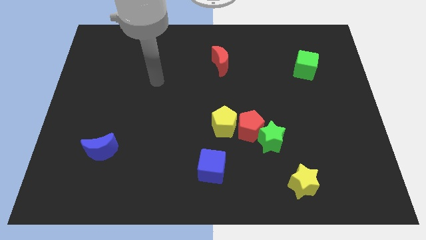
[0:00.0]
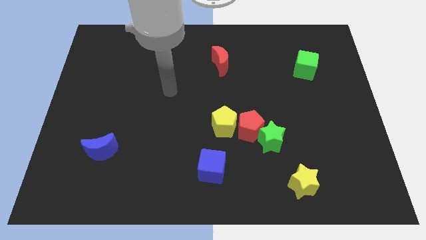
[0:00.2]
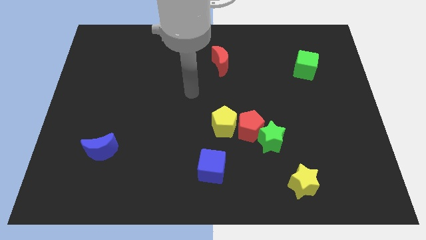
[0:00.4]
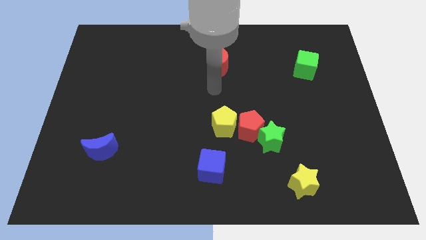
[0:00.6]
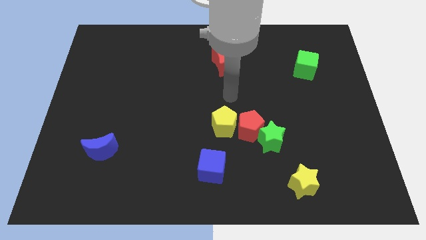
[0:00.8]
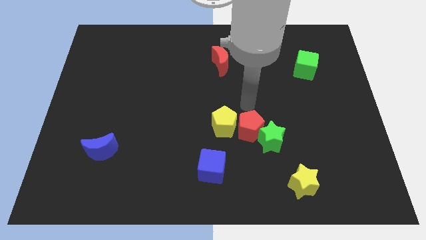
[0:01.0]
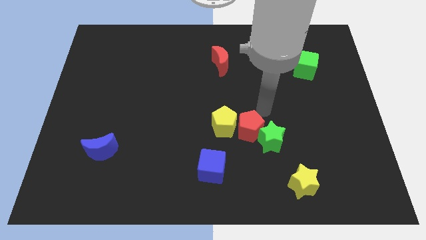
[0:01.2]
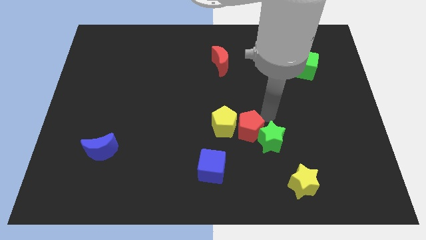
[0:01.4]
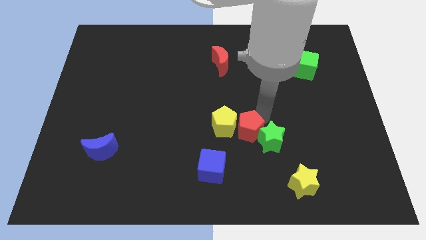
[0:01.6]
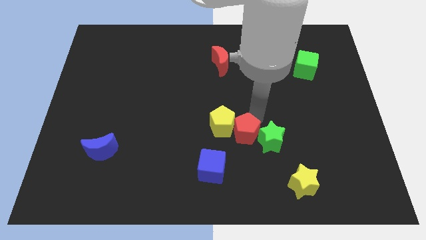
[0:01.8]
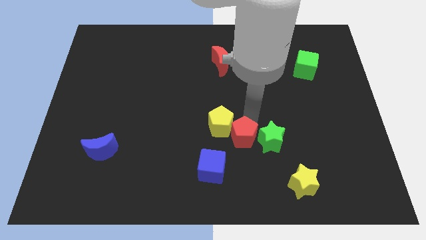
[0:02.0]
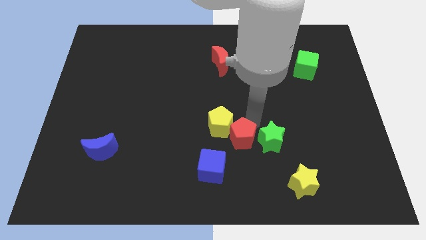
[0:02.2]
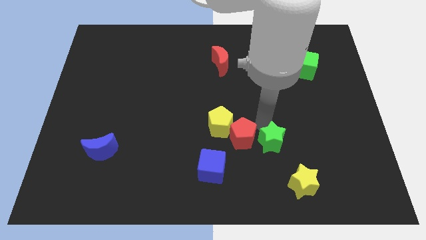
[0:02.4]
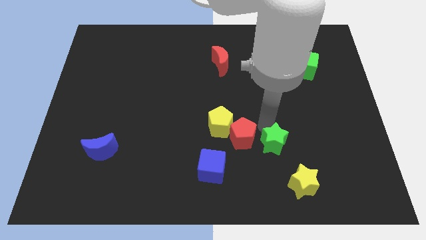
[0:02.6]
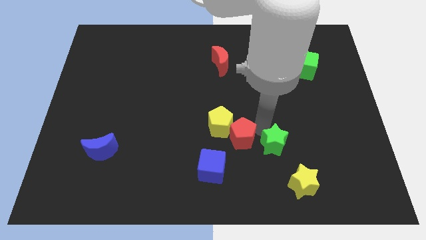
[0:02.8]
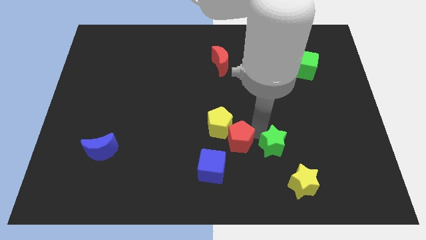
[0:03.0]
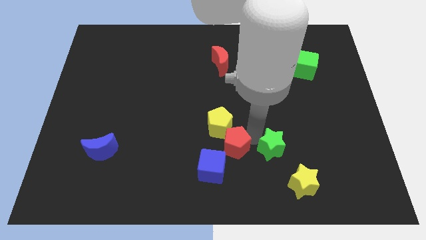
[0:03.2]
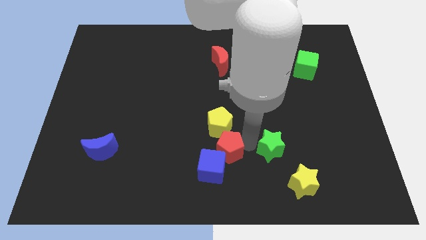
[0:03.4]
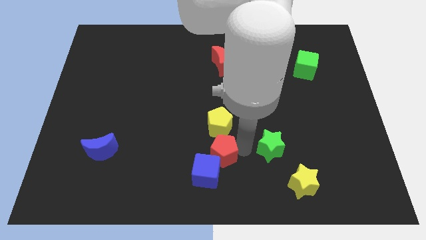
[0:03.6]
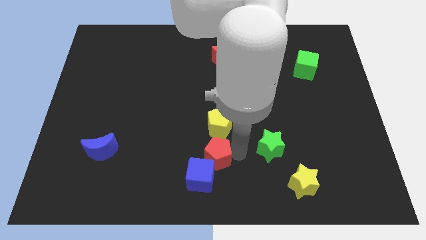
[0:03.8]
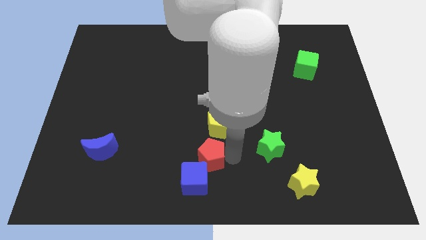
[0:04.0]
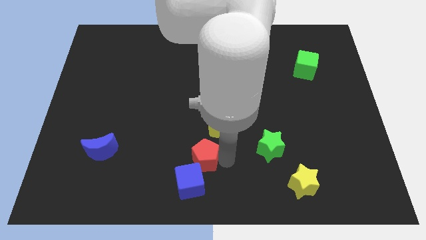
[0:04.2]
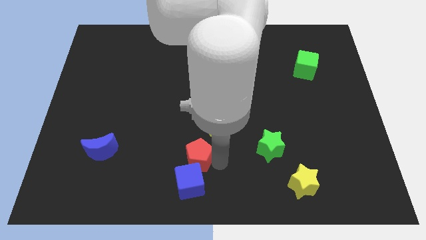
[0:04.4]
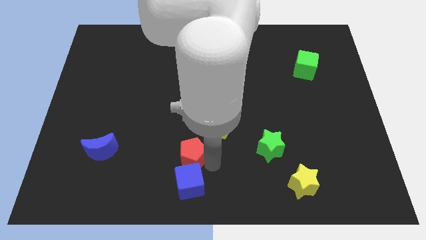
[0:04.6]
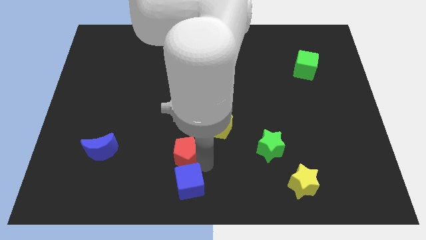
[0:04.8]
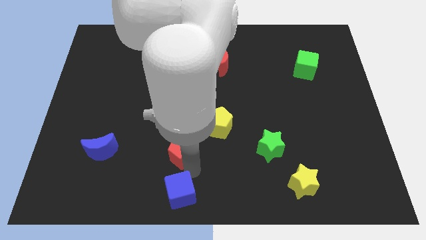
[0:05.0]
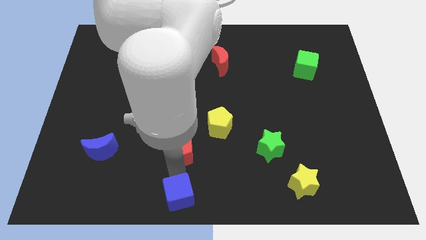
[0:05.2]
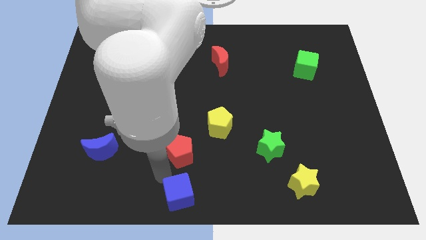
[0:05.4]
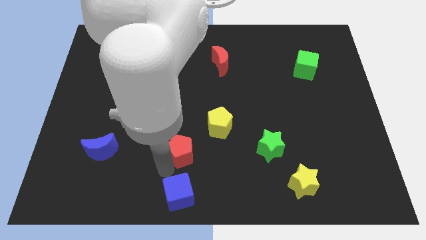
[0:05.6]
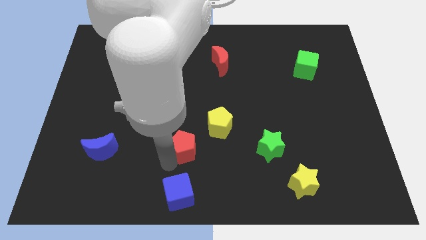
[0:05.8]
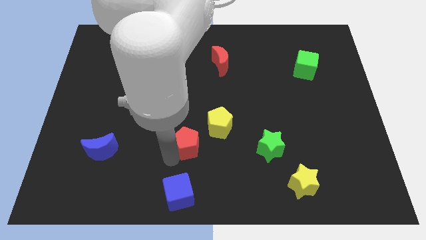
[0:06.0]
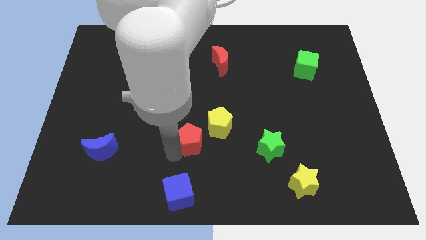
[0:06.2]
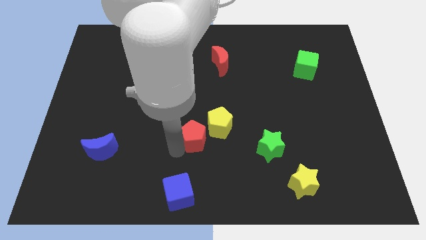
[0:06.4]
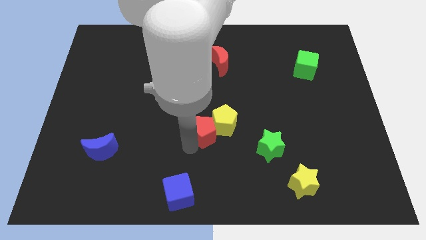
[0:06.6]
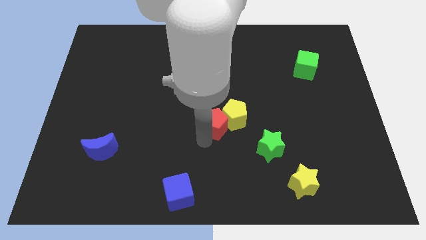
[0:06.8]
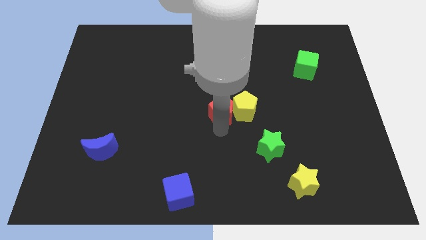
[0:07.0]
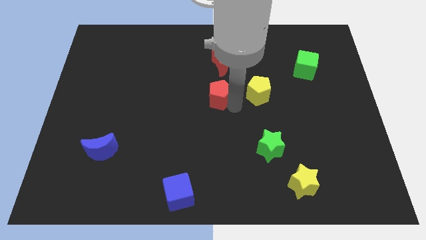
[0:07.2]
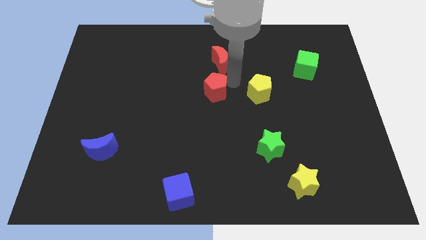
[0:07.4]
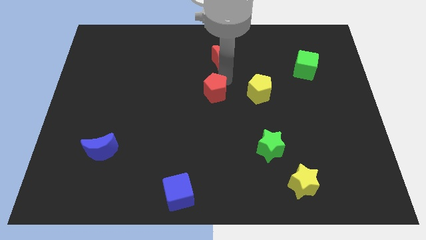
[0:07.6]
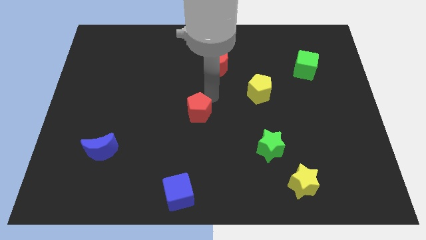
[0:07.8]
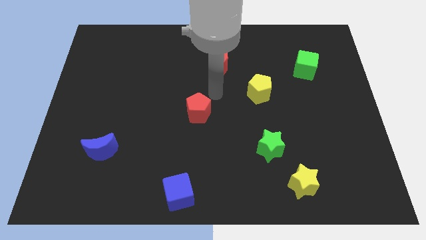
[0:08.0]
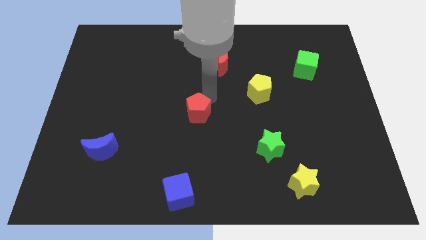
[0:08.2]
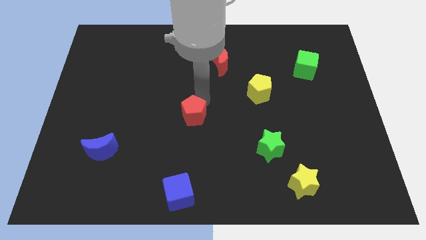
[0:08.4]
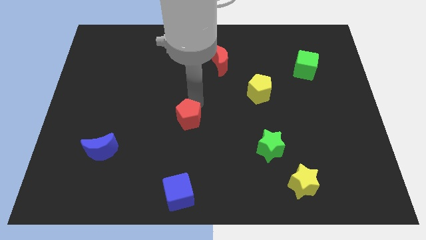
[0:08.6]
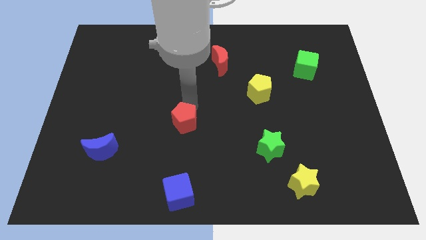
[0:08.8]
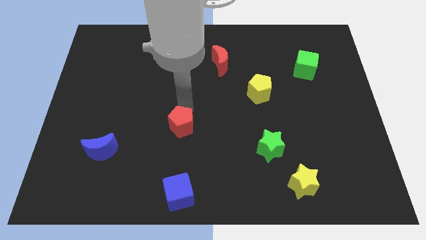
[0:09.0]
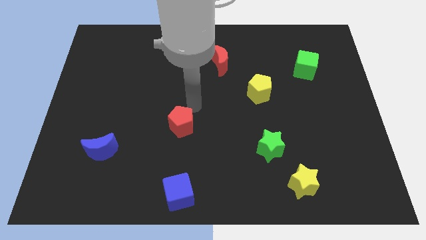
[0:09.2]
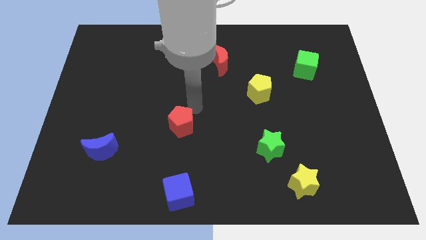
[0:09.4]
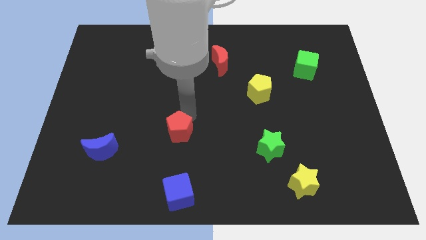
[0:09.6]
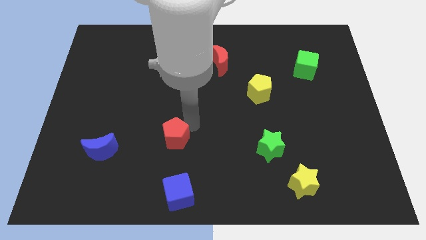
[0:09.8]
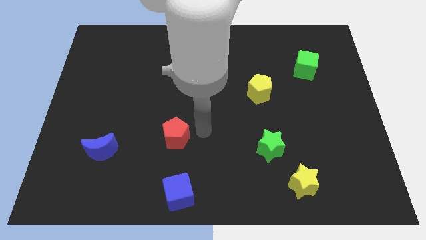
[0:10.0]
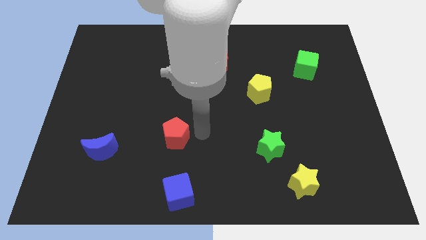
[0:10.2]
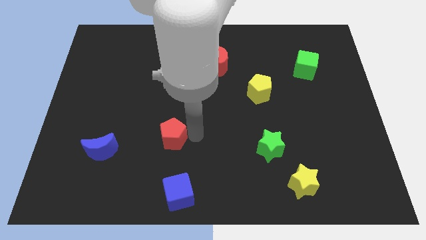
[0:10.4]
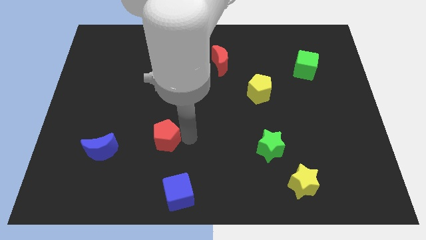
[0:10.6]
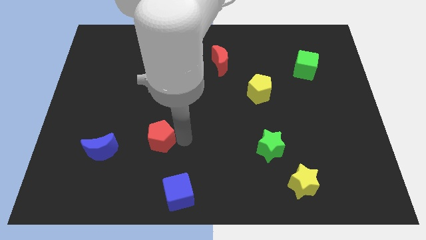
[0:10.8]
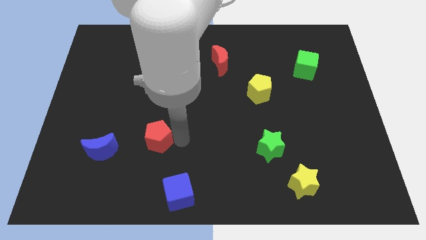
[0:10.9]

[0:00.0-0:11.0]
move the red pentagon left

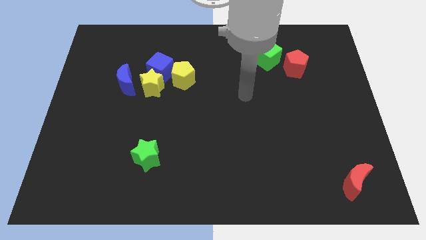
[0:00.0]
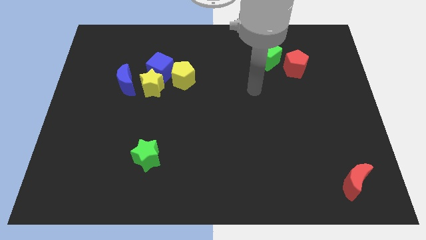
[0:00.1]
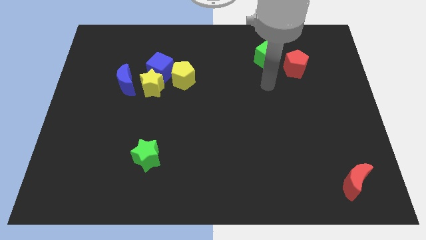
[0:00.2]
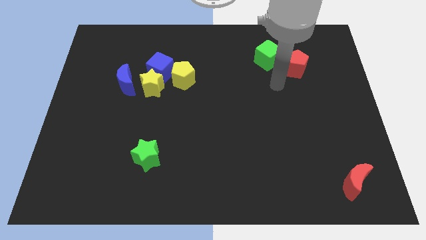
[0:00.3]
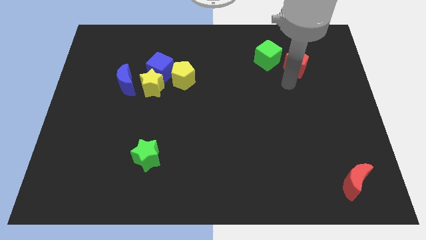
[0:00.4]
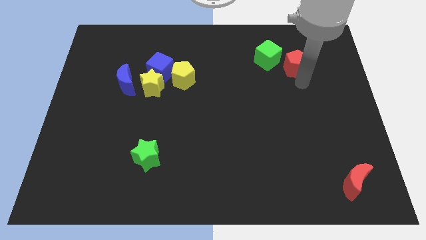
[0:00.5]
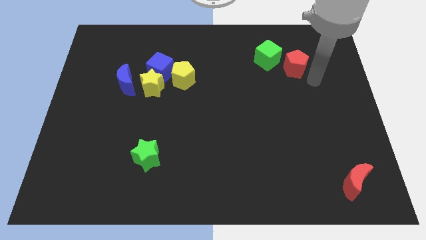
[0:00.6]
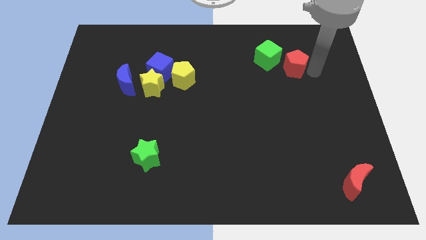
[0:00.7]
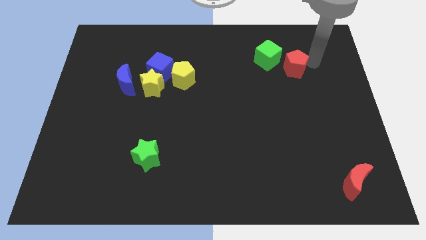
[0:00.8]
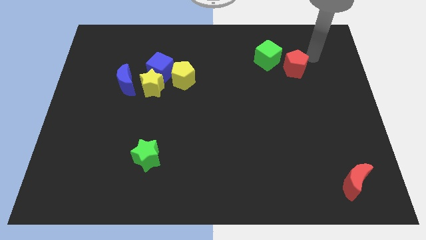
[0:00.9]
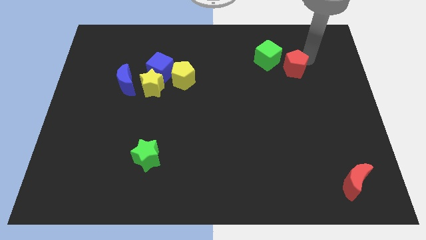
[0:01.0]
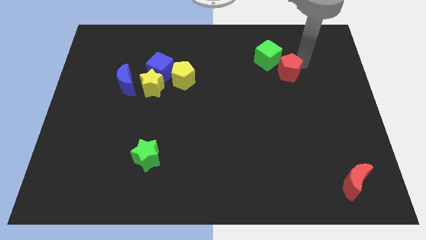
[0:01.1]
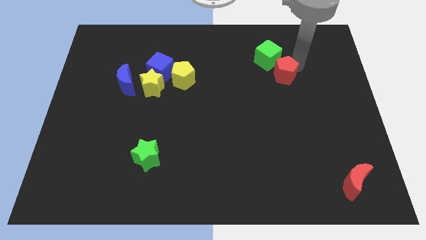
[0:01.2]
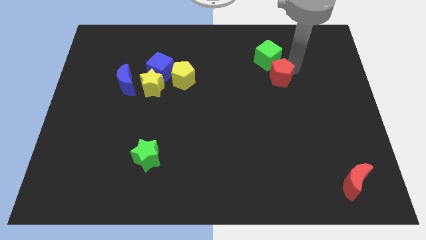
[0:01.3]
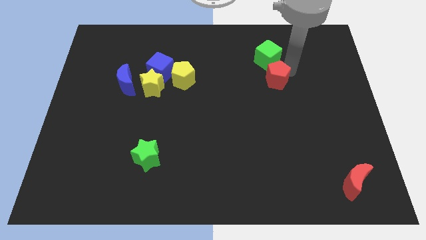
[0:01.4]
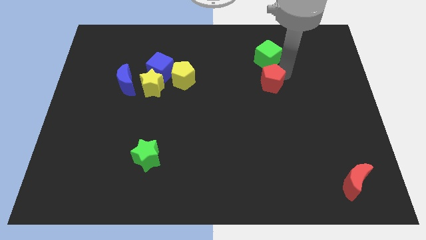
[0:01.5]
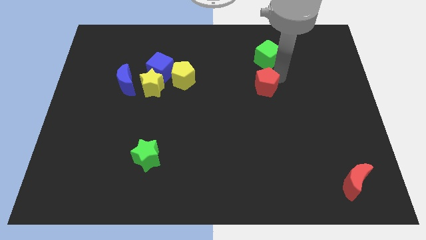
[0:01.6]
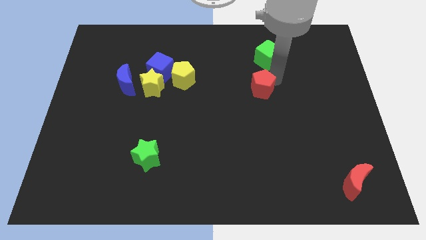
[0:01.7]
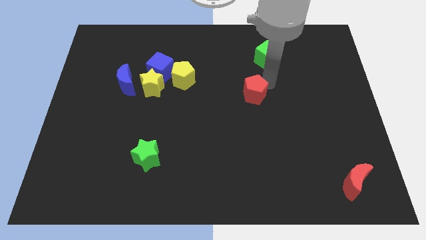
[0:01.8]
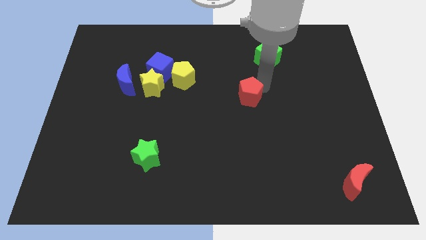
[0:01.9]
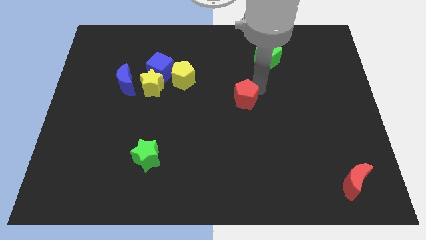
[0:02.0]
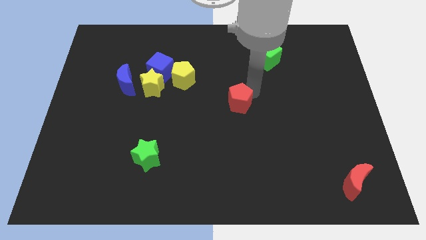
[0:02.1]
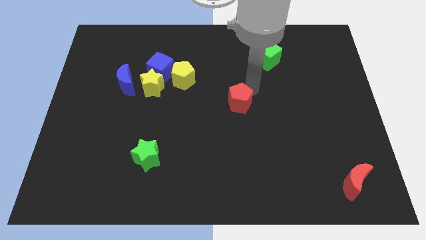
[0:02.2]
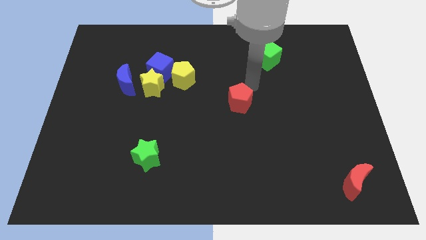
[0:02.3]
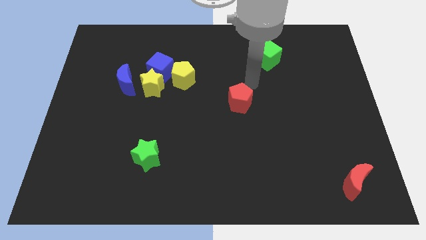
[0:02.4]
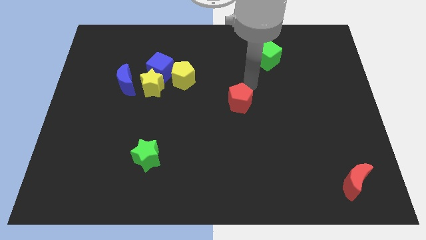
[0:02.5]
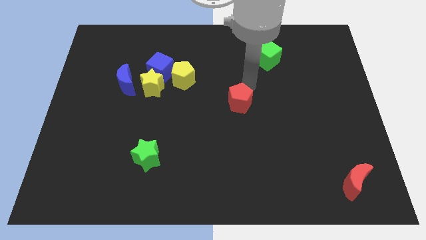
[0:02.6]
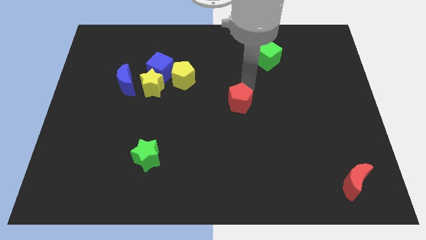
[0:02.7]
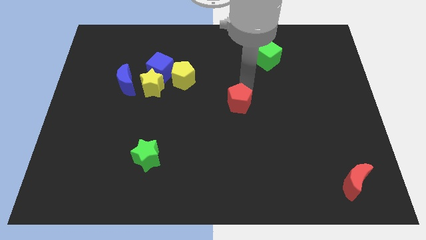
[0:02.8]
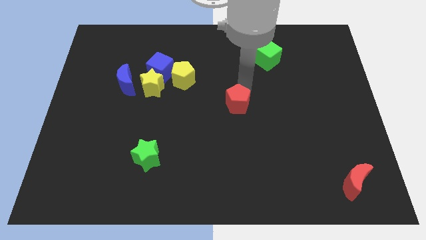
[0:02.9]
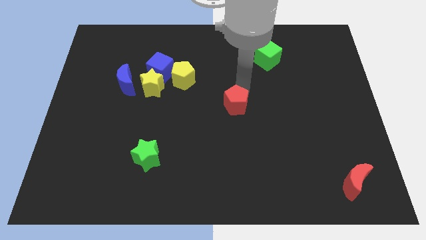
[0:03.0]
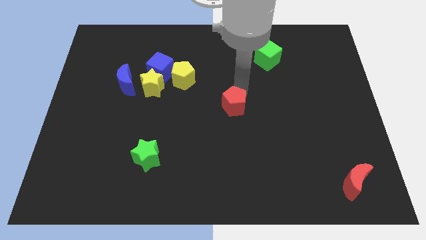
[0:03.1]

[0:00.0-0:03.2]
move the red pentagon down and left diagonally
